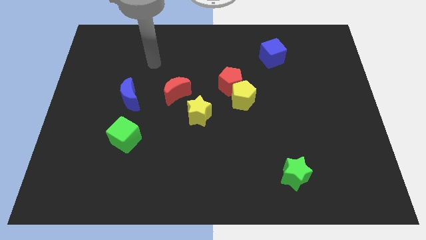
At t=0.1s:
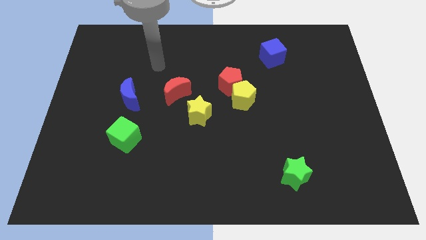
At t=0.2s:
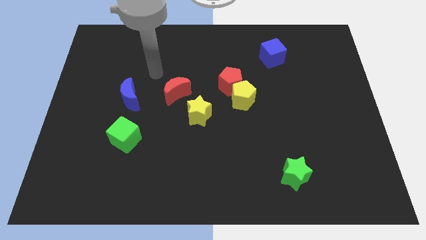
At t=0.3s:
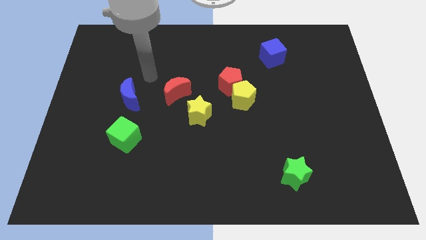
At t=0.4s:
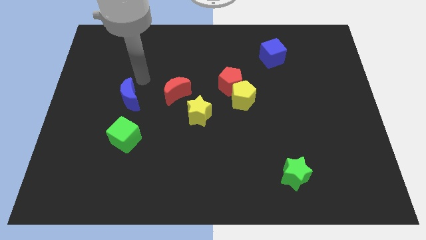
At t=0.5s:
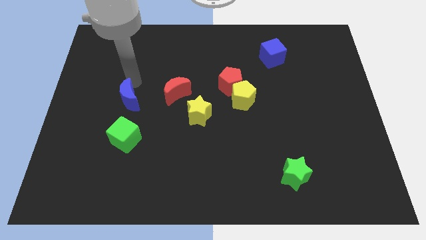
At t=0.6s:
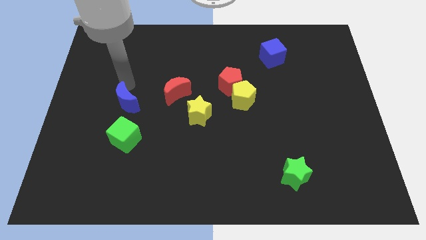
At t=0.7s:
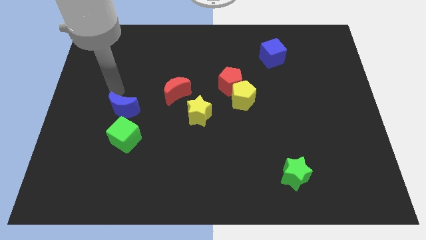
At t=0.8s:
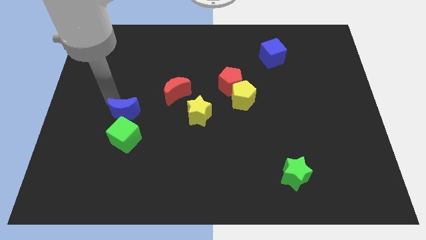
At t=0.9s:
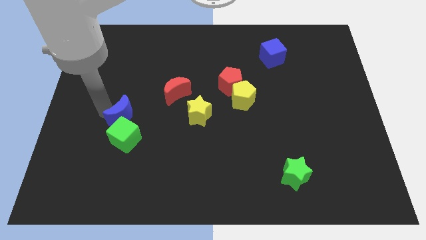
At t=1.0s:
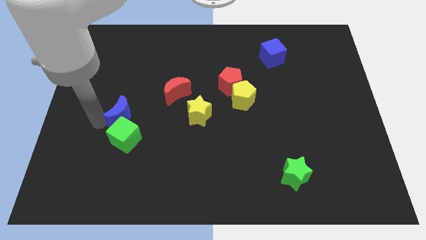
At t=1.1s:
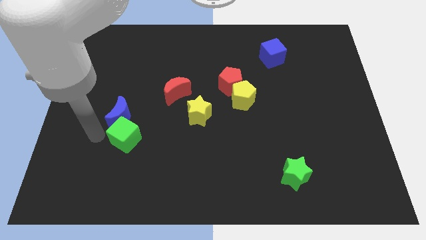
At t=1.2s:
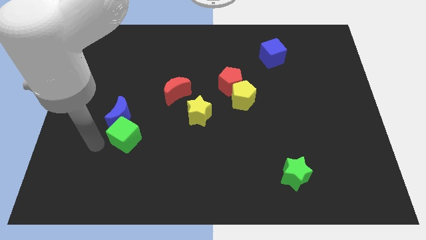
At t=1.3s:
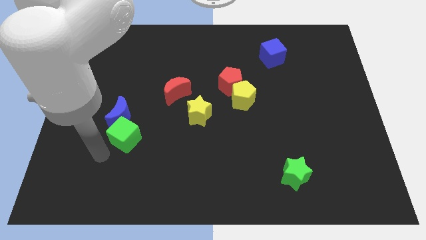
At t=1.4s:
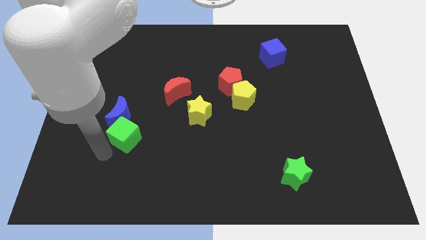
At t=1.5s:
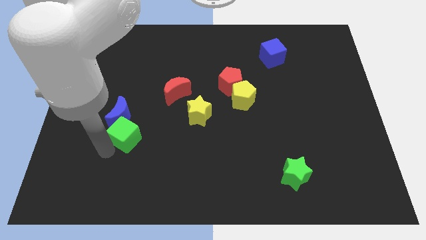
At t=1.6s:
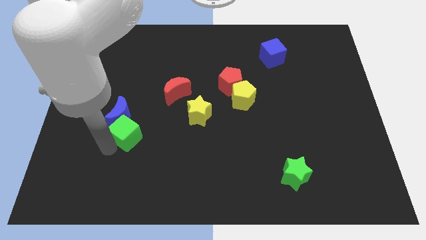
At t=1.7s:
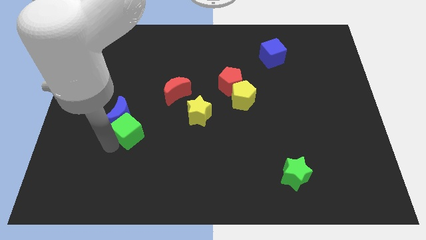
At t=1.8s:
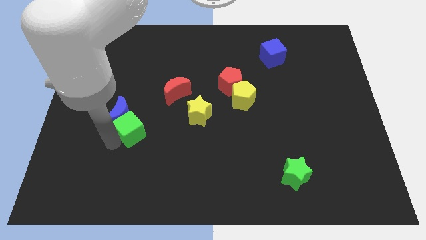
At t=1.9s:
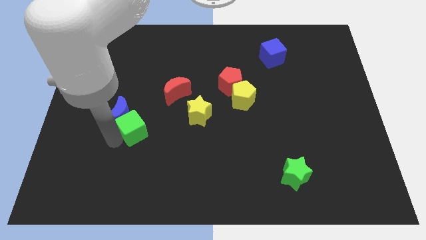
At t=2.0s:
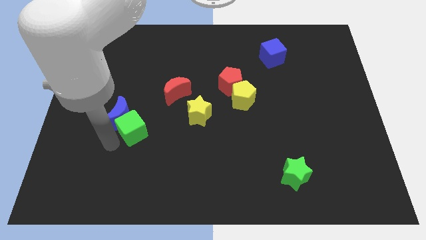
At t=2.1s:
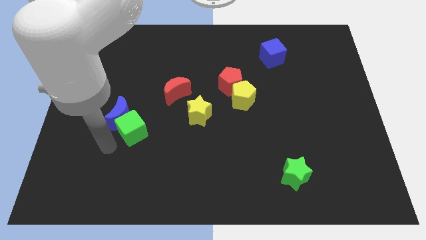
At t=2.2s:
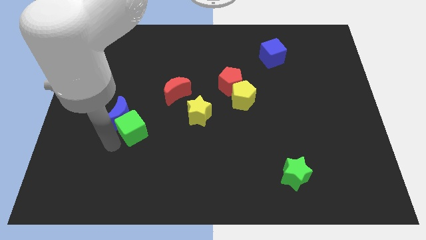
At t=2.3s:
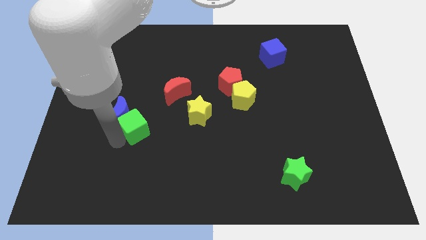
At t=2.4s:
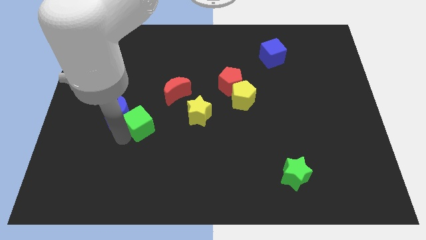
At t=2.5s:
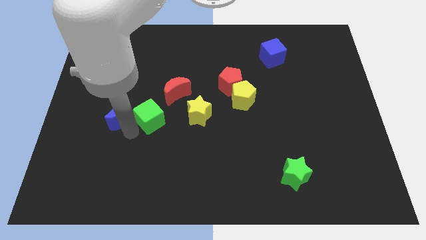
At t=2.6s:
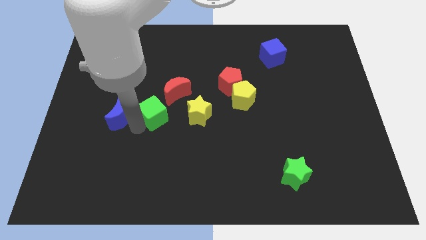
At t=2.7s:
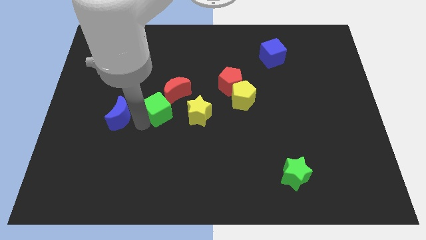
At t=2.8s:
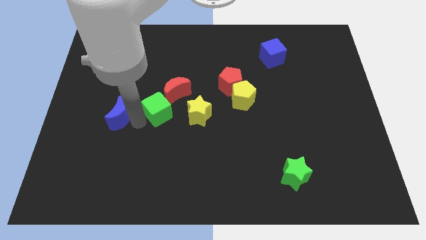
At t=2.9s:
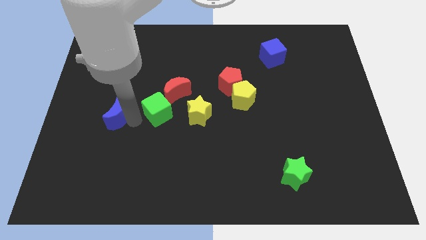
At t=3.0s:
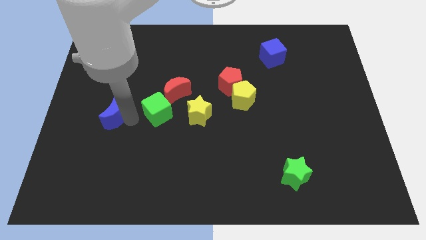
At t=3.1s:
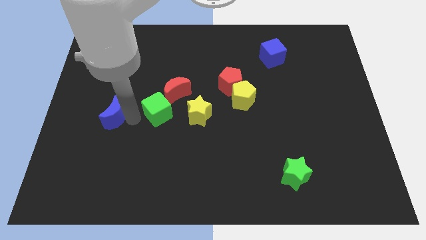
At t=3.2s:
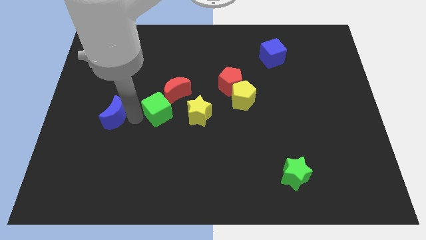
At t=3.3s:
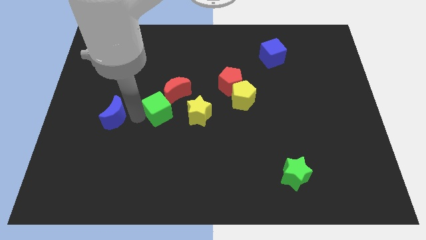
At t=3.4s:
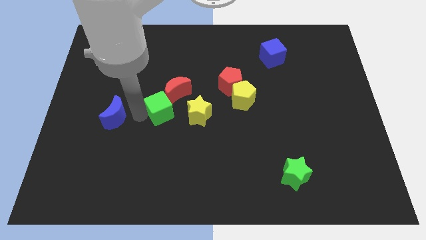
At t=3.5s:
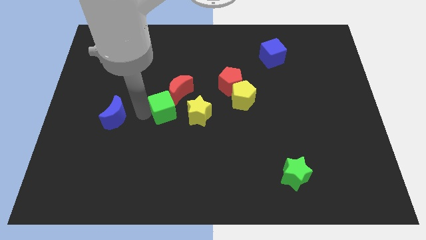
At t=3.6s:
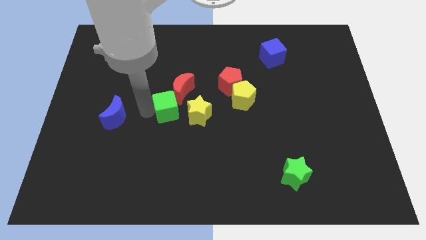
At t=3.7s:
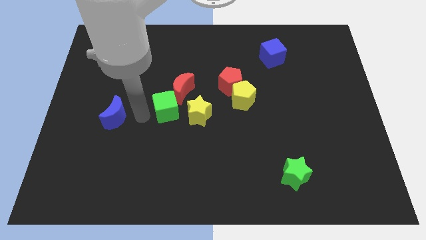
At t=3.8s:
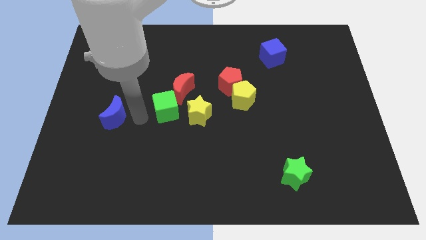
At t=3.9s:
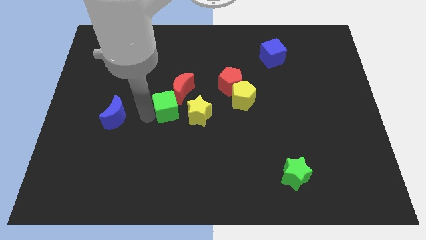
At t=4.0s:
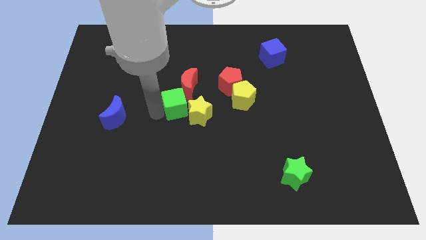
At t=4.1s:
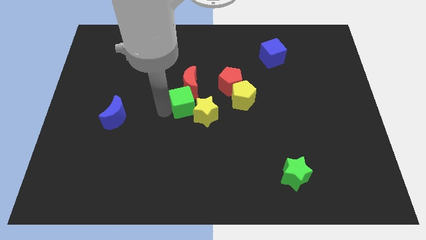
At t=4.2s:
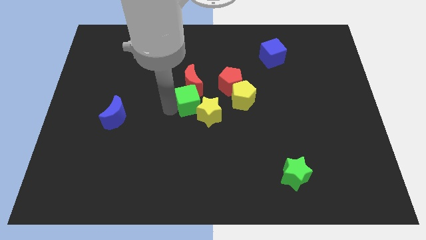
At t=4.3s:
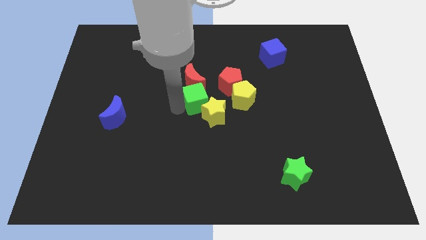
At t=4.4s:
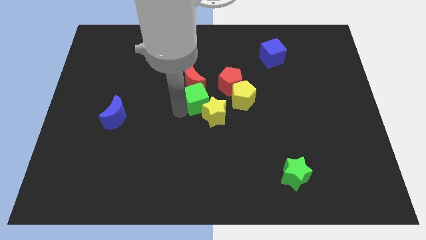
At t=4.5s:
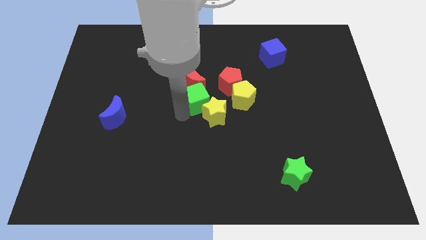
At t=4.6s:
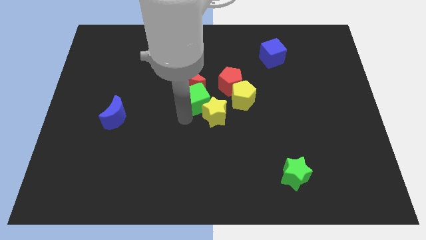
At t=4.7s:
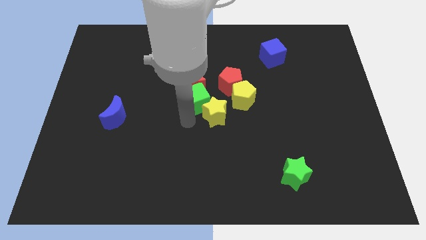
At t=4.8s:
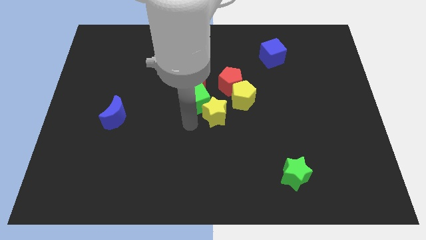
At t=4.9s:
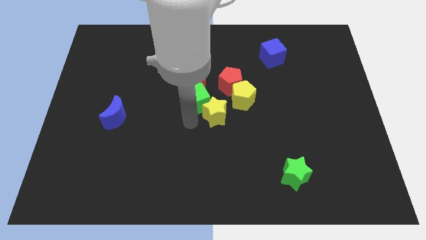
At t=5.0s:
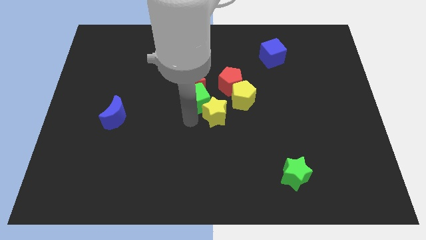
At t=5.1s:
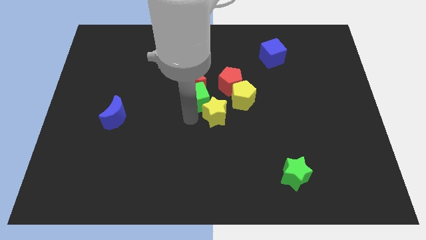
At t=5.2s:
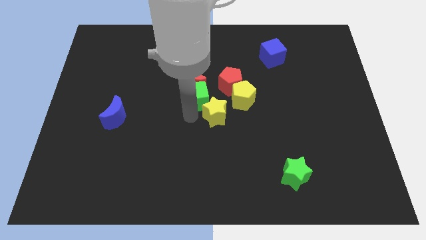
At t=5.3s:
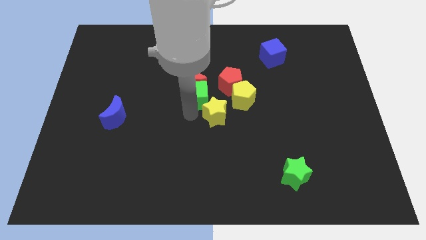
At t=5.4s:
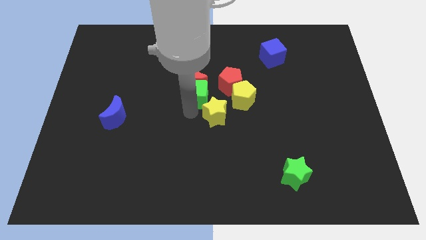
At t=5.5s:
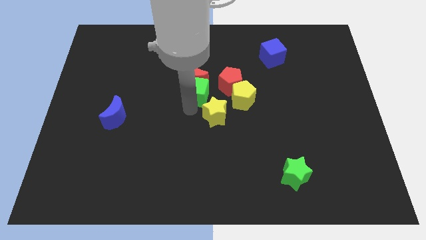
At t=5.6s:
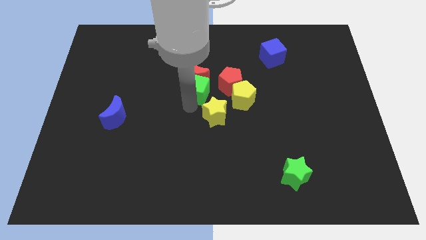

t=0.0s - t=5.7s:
slide the green cube up and to the right

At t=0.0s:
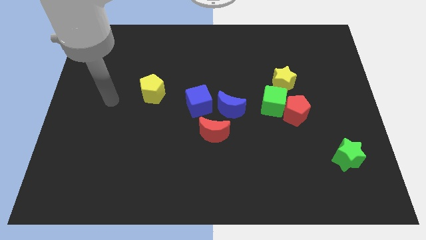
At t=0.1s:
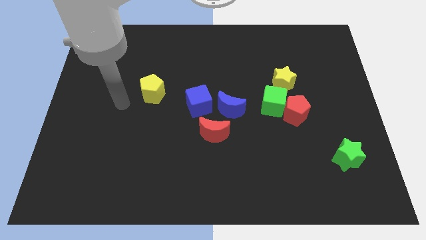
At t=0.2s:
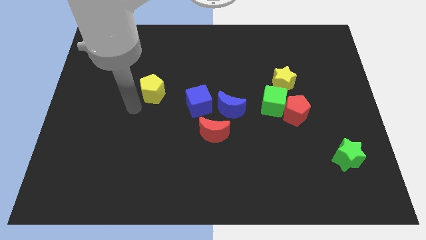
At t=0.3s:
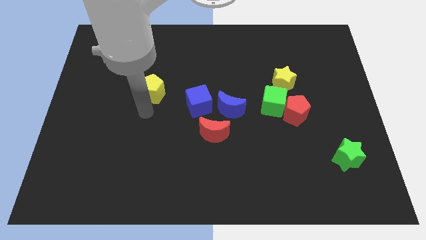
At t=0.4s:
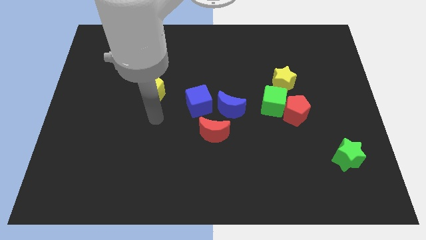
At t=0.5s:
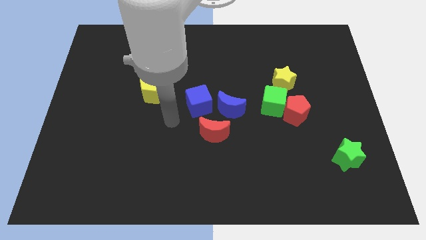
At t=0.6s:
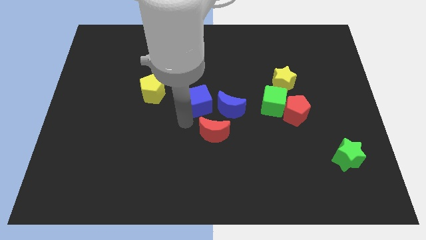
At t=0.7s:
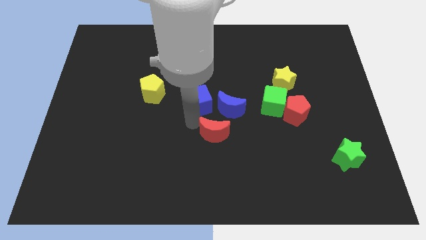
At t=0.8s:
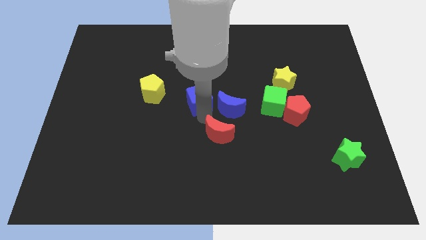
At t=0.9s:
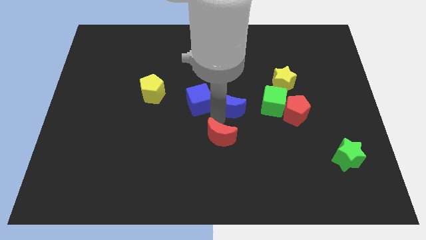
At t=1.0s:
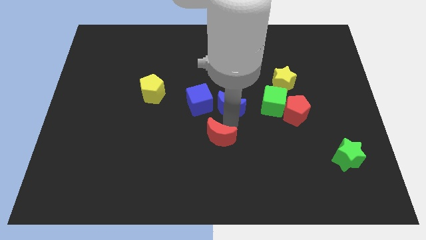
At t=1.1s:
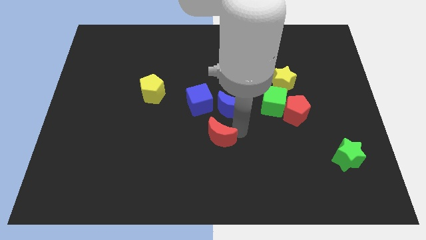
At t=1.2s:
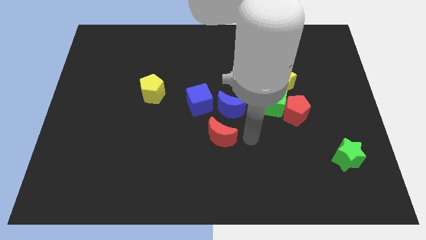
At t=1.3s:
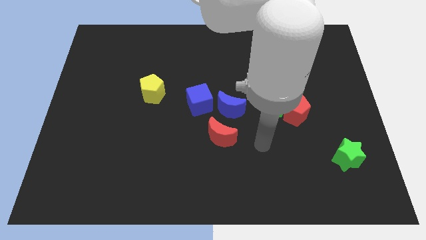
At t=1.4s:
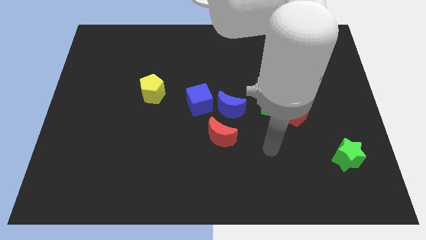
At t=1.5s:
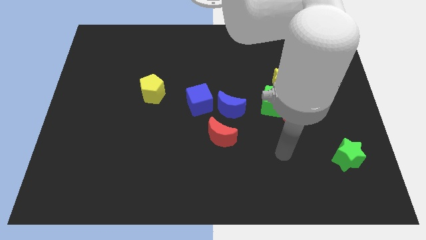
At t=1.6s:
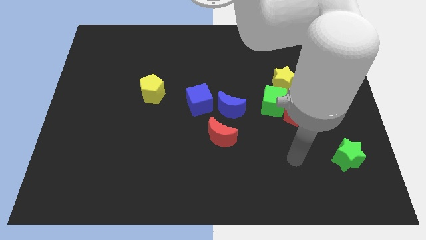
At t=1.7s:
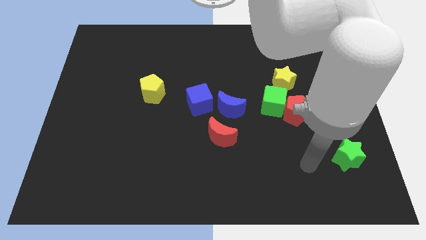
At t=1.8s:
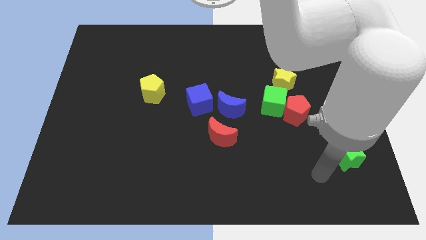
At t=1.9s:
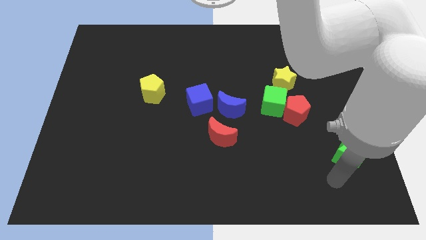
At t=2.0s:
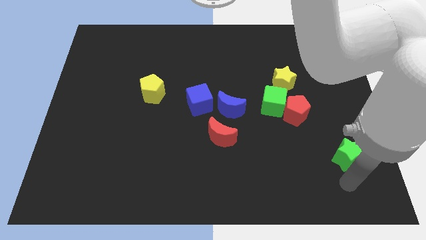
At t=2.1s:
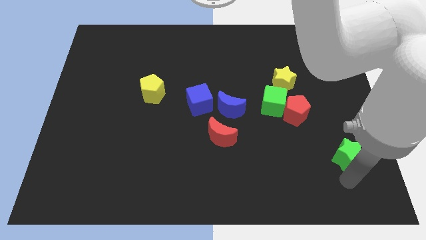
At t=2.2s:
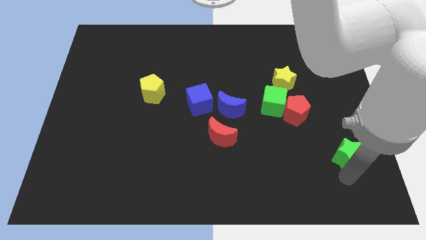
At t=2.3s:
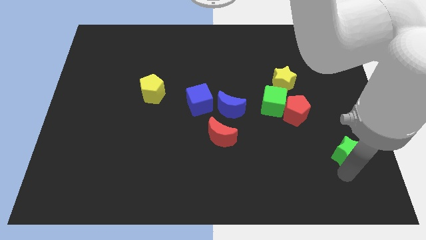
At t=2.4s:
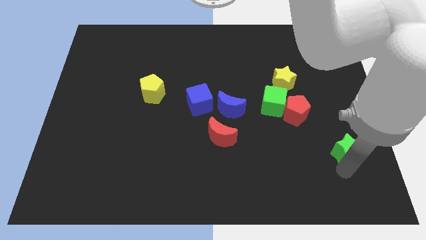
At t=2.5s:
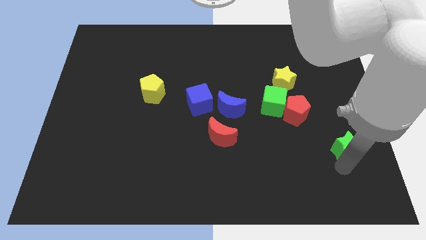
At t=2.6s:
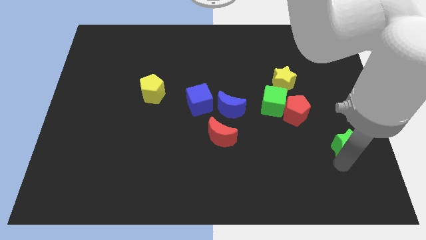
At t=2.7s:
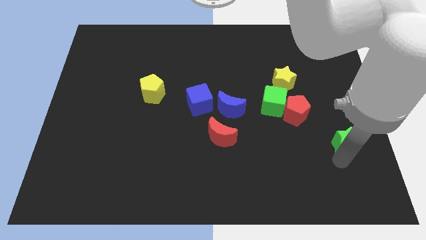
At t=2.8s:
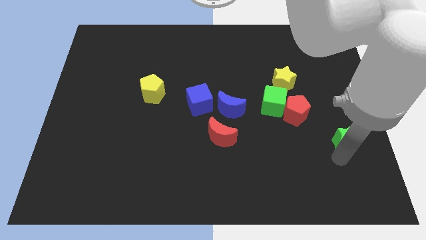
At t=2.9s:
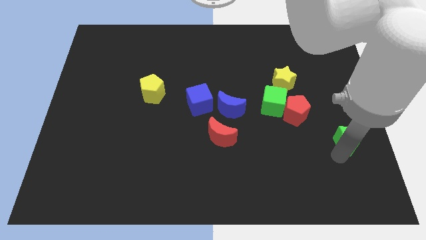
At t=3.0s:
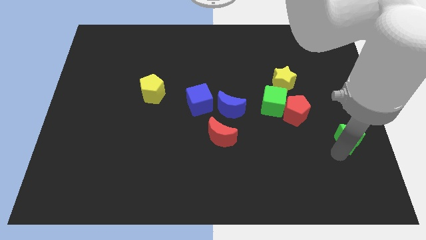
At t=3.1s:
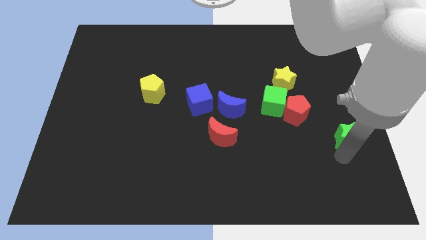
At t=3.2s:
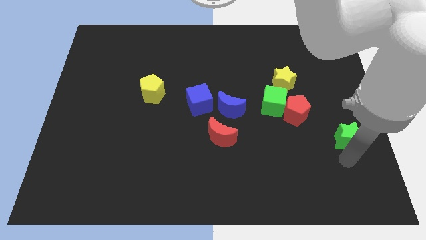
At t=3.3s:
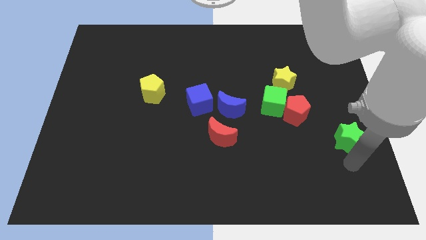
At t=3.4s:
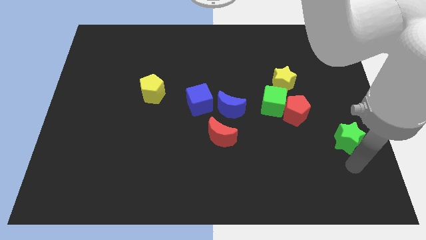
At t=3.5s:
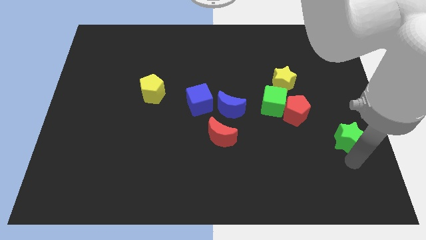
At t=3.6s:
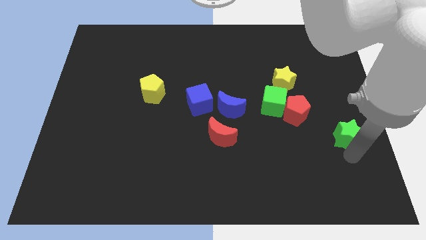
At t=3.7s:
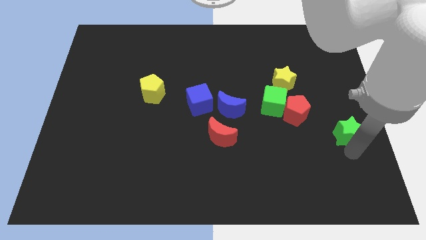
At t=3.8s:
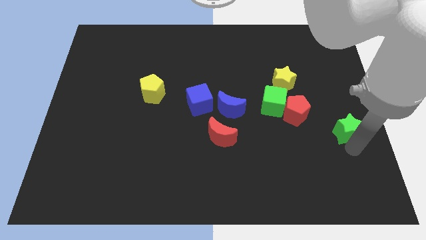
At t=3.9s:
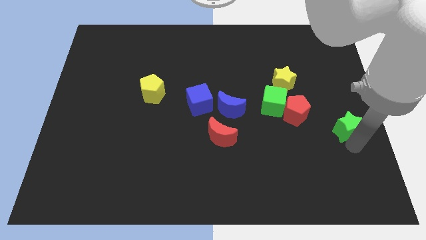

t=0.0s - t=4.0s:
slide the green star somewhat upwards
